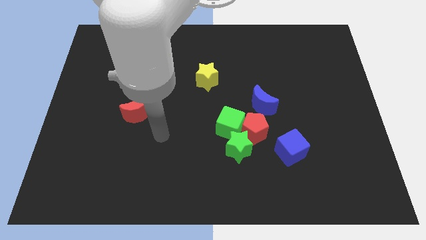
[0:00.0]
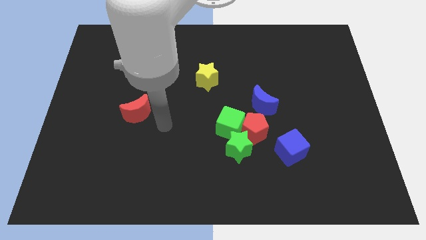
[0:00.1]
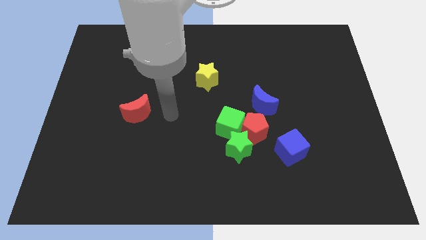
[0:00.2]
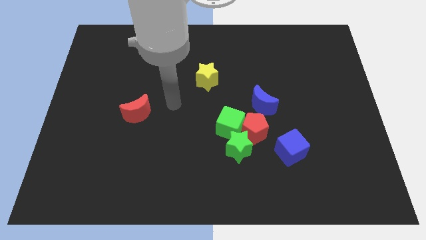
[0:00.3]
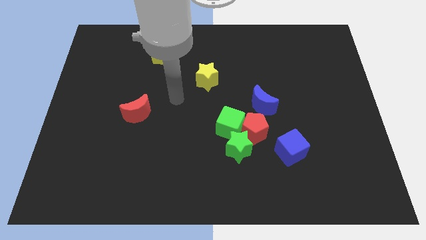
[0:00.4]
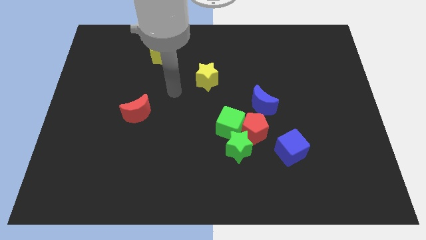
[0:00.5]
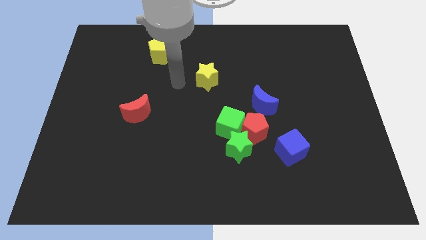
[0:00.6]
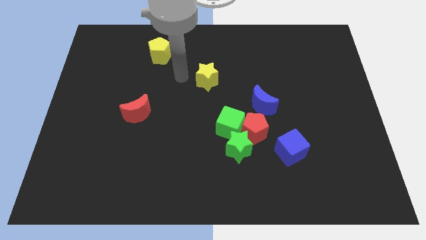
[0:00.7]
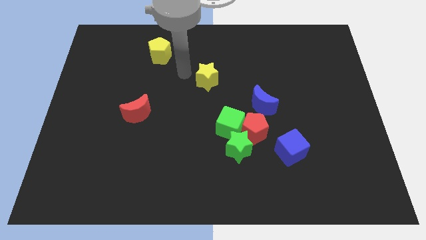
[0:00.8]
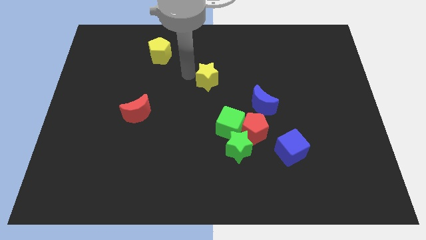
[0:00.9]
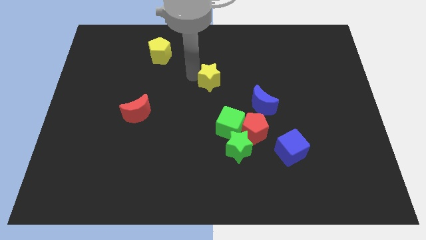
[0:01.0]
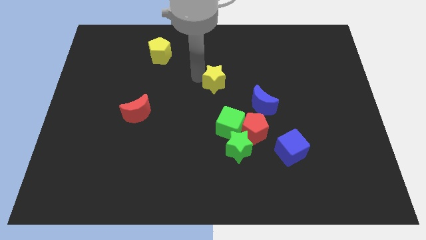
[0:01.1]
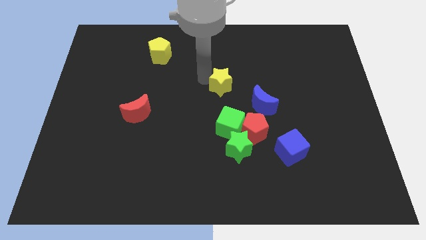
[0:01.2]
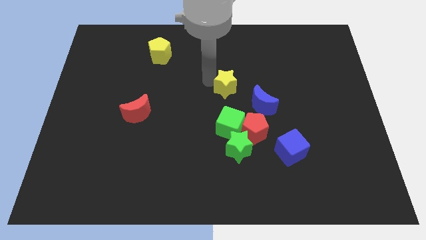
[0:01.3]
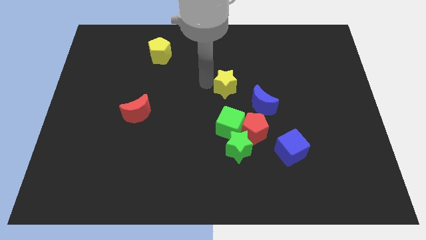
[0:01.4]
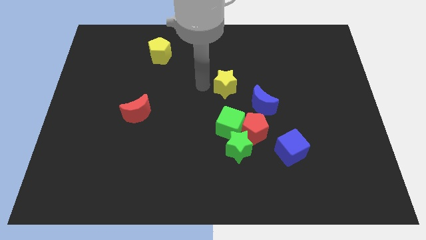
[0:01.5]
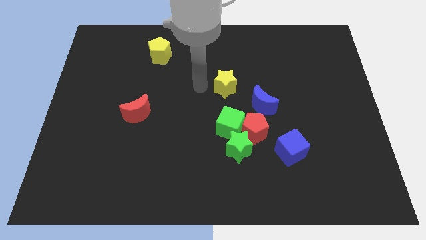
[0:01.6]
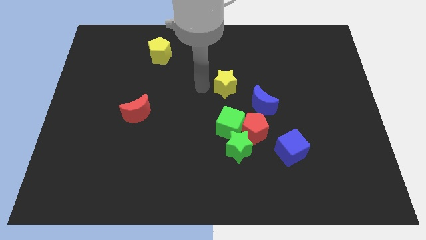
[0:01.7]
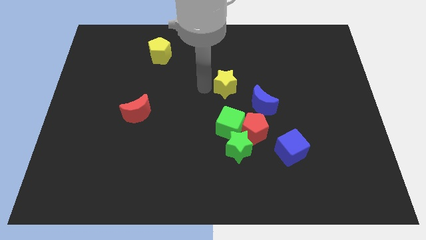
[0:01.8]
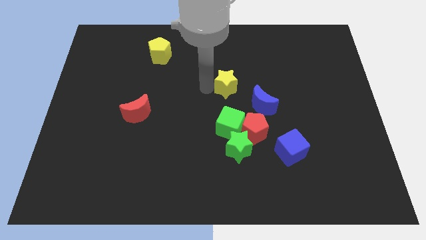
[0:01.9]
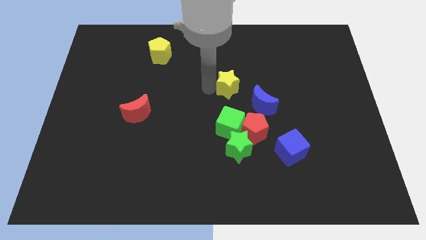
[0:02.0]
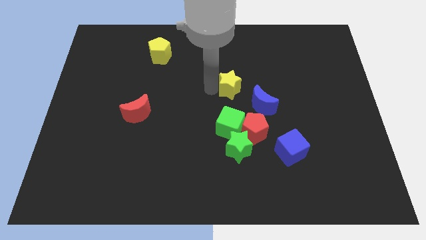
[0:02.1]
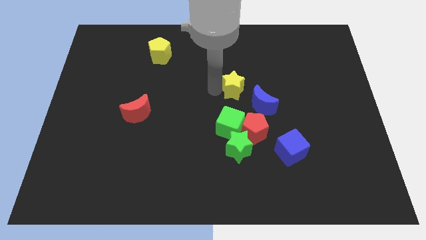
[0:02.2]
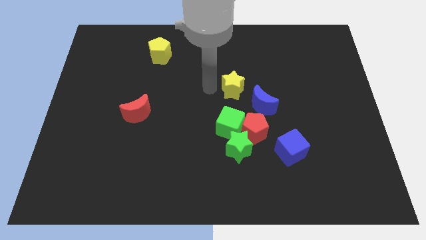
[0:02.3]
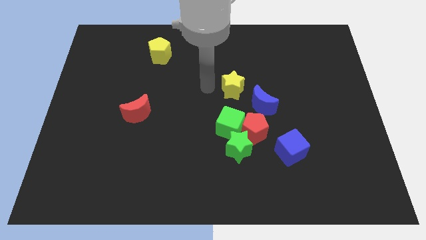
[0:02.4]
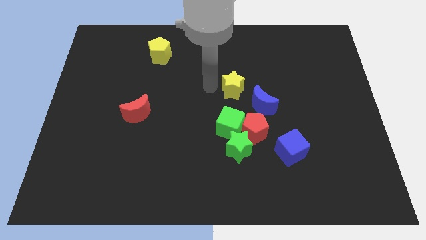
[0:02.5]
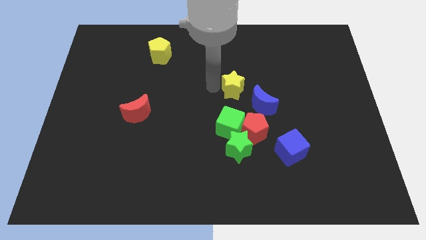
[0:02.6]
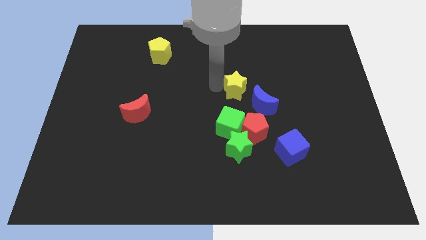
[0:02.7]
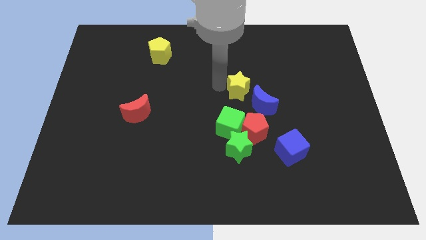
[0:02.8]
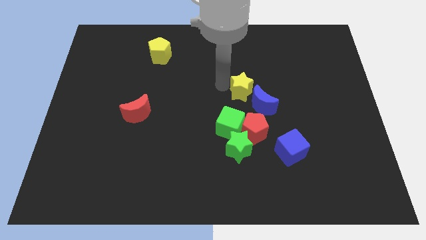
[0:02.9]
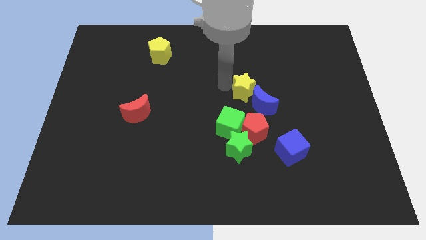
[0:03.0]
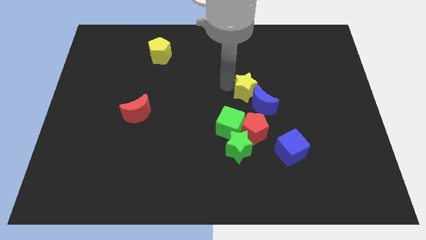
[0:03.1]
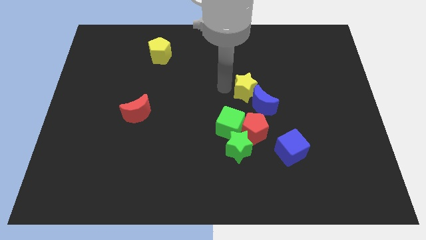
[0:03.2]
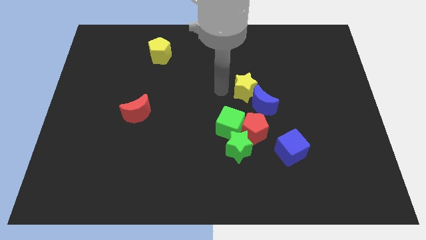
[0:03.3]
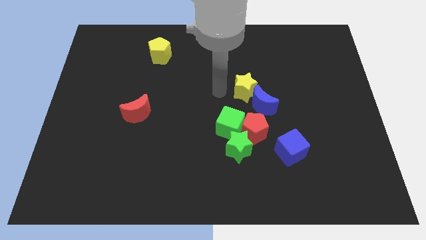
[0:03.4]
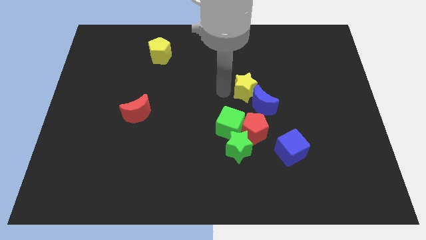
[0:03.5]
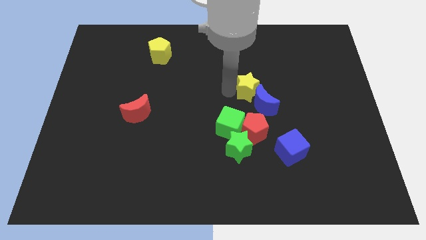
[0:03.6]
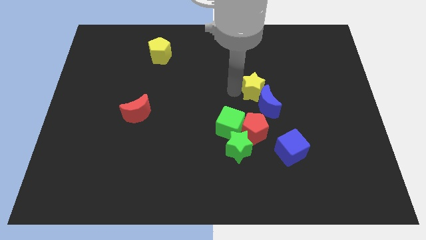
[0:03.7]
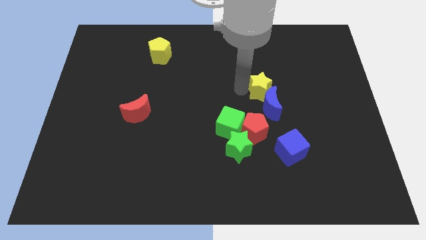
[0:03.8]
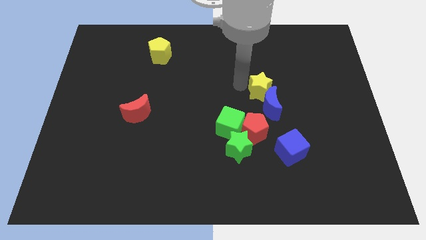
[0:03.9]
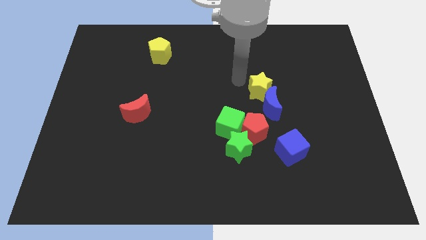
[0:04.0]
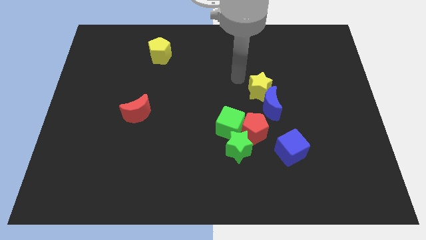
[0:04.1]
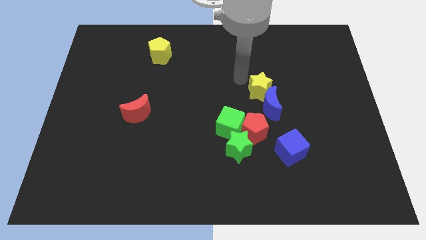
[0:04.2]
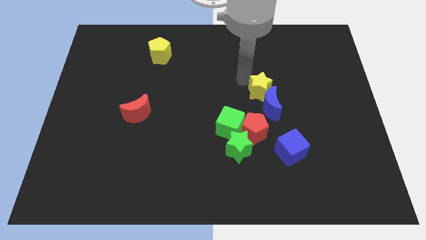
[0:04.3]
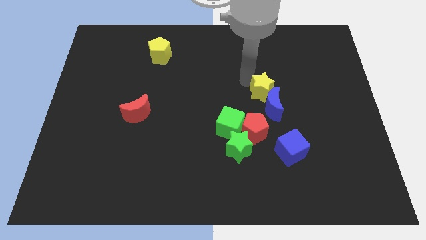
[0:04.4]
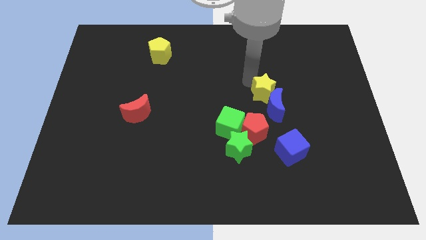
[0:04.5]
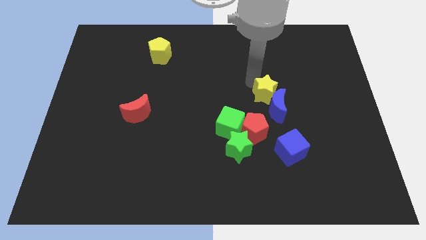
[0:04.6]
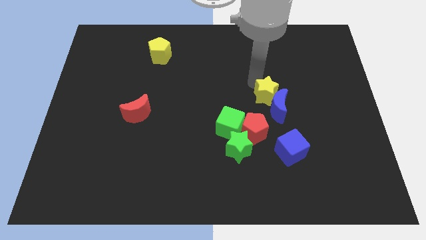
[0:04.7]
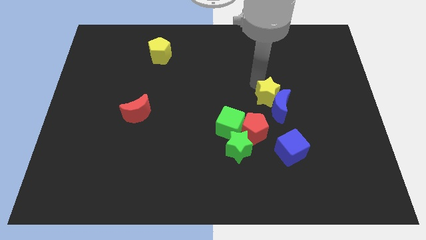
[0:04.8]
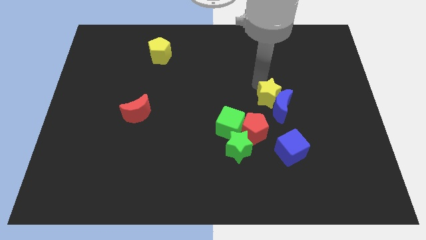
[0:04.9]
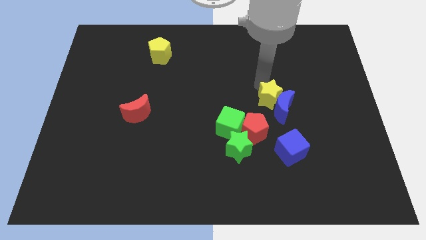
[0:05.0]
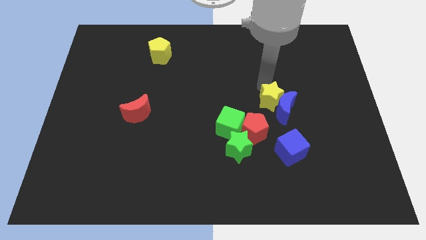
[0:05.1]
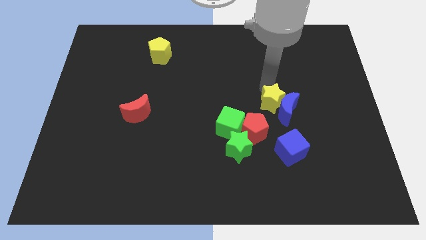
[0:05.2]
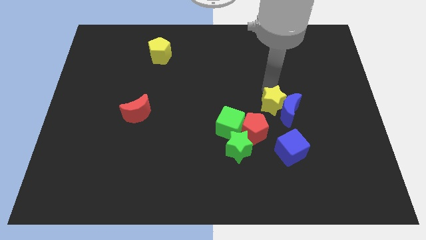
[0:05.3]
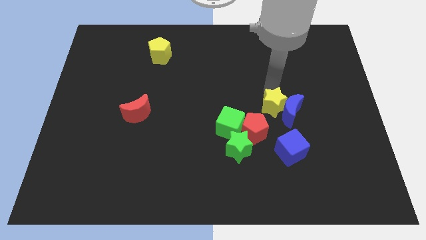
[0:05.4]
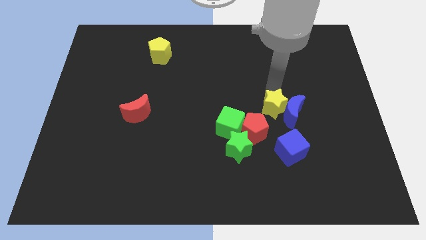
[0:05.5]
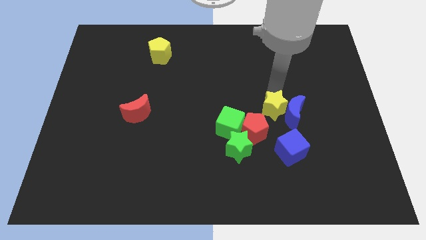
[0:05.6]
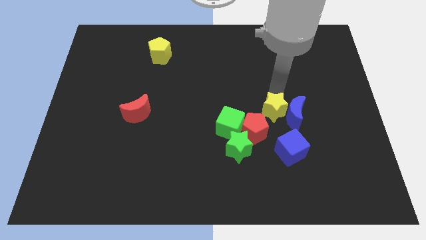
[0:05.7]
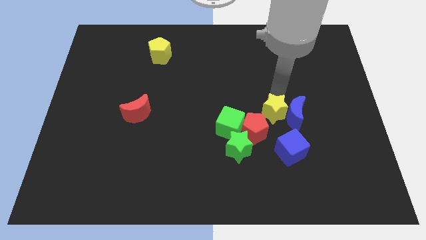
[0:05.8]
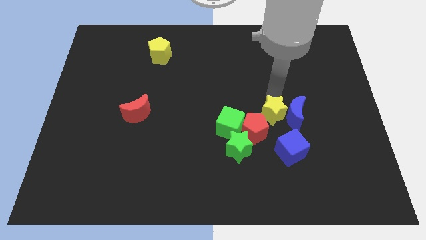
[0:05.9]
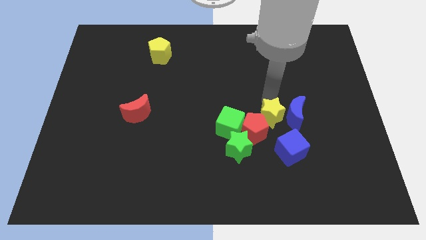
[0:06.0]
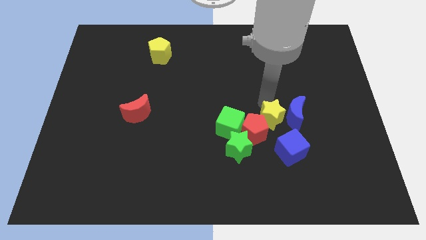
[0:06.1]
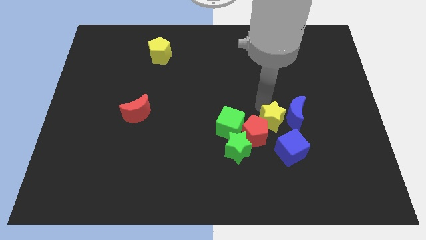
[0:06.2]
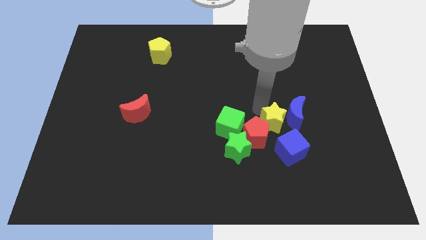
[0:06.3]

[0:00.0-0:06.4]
move the yellow star down and then to the right

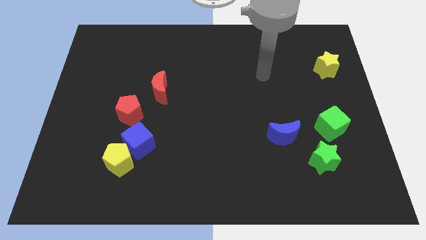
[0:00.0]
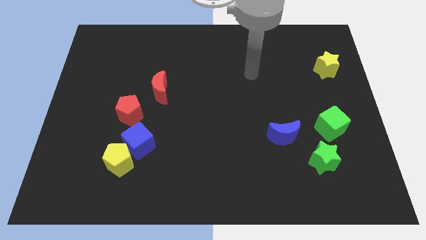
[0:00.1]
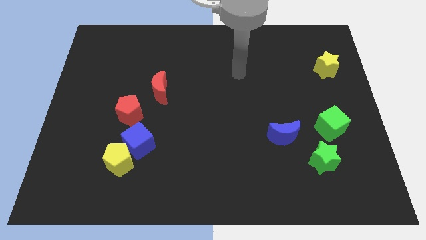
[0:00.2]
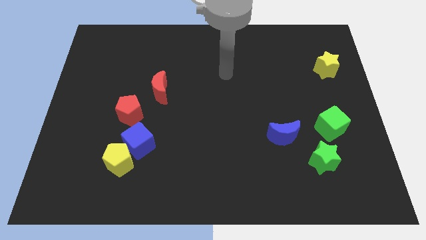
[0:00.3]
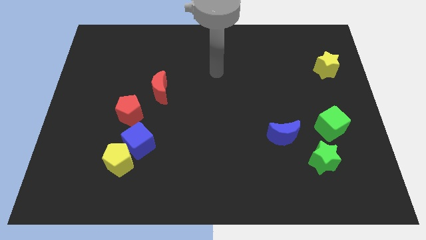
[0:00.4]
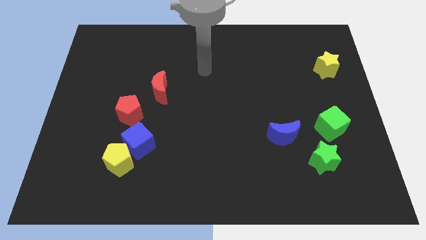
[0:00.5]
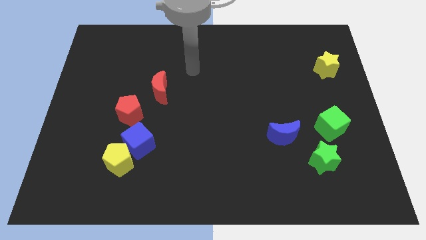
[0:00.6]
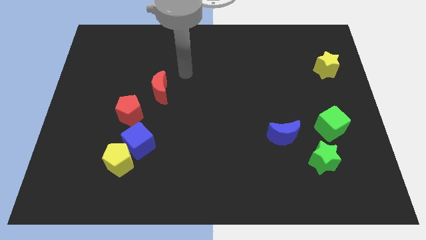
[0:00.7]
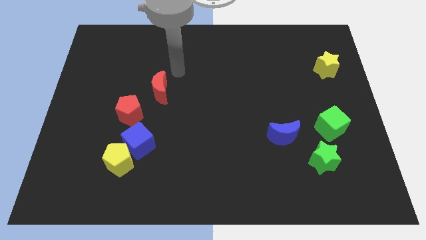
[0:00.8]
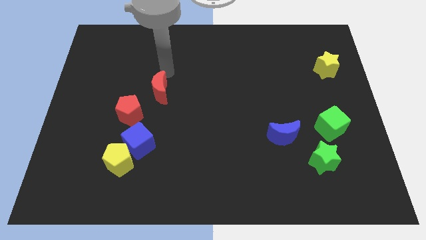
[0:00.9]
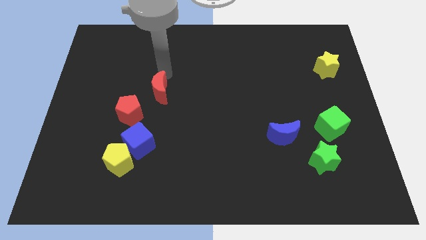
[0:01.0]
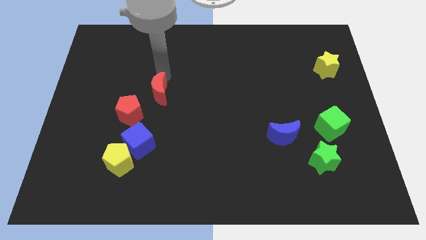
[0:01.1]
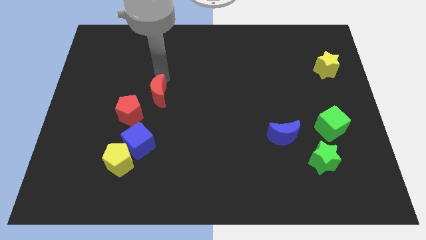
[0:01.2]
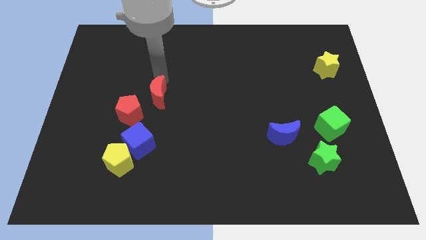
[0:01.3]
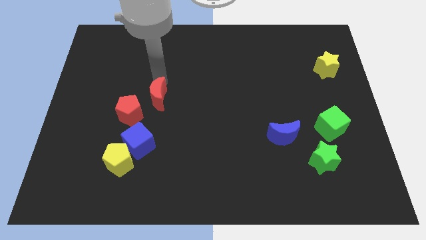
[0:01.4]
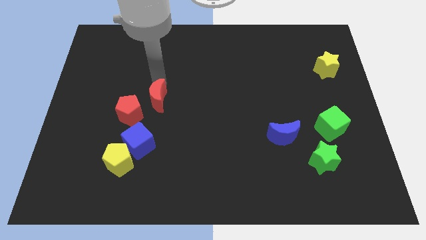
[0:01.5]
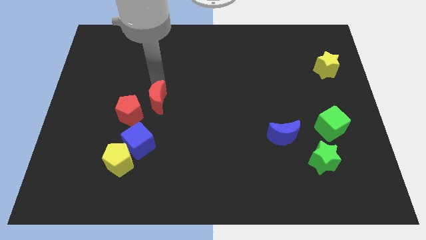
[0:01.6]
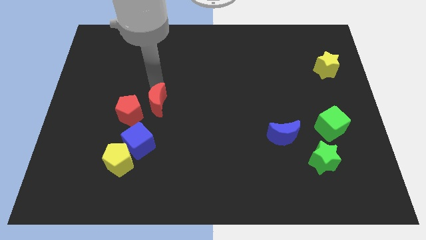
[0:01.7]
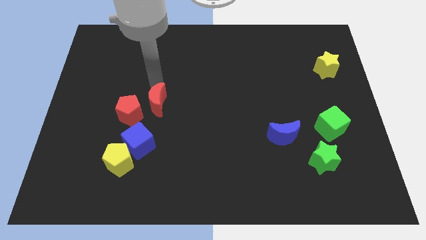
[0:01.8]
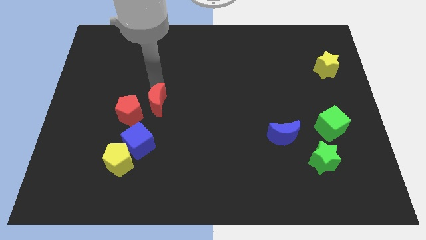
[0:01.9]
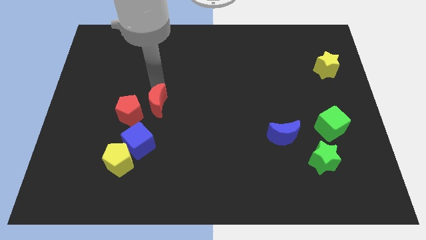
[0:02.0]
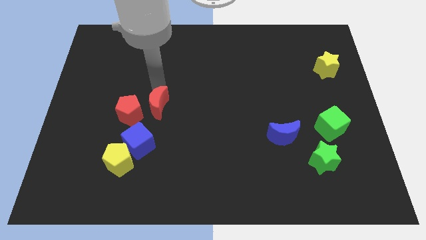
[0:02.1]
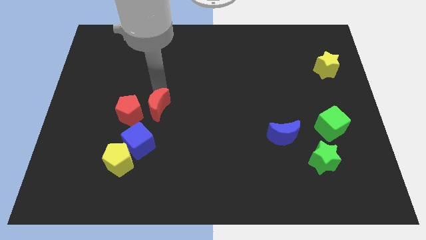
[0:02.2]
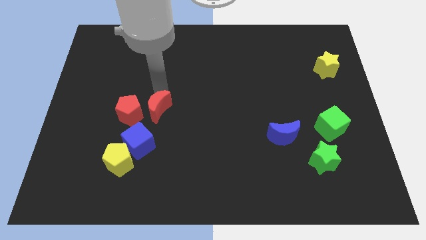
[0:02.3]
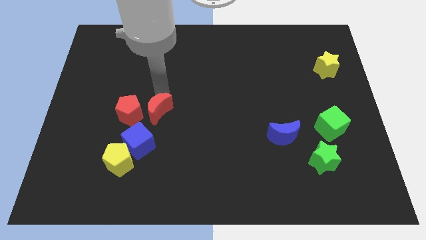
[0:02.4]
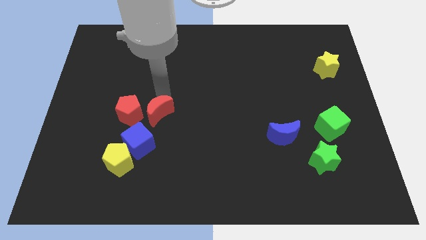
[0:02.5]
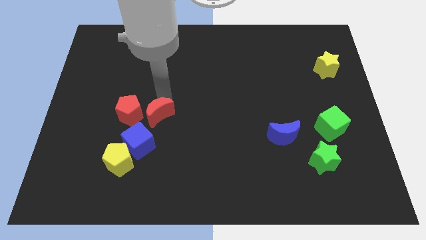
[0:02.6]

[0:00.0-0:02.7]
slide the red moon a little bit downwards
